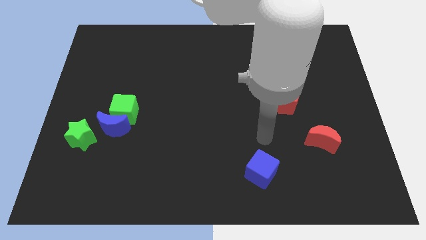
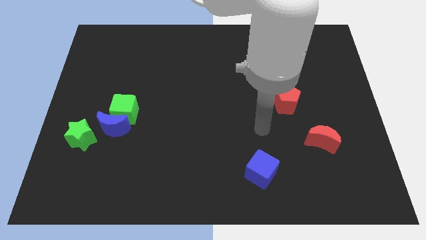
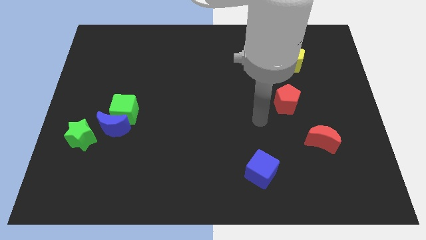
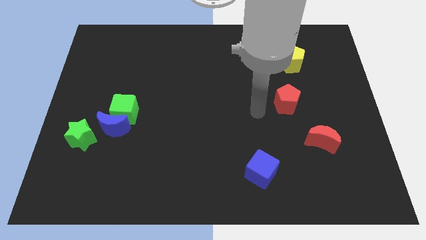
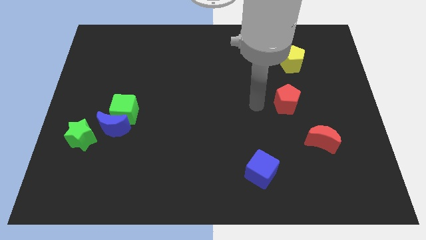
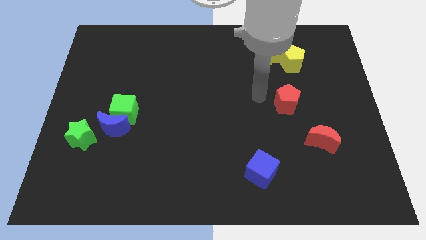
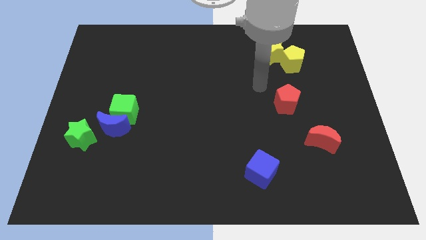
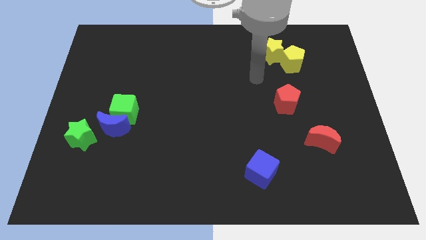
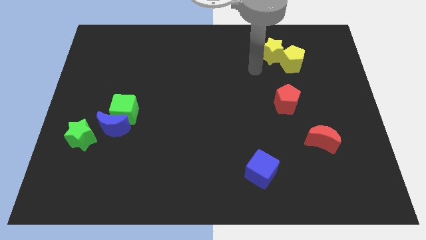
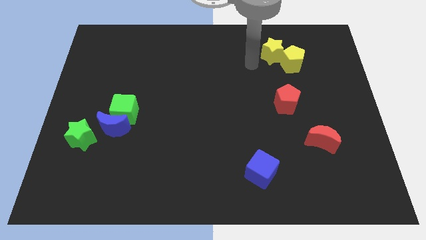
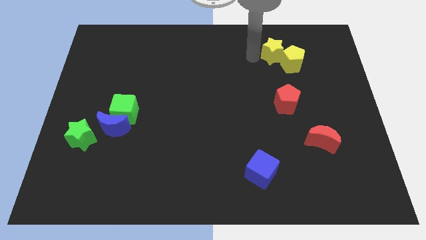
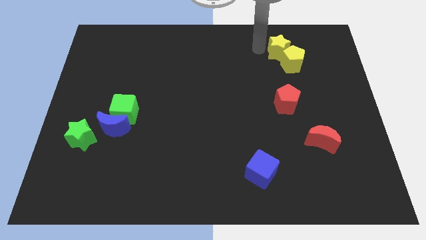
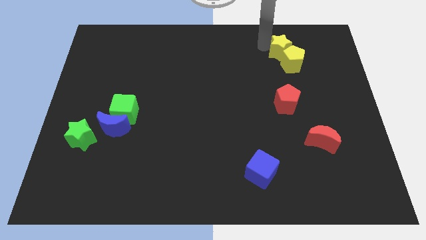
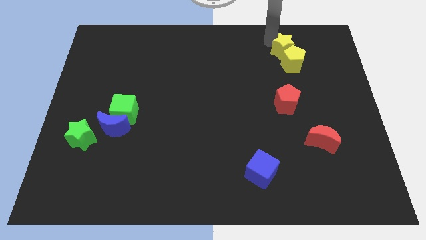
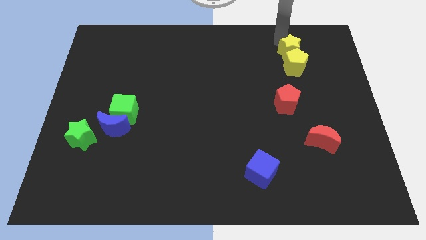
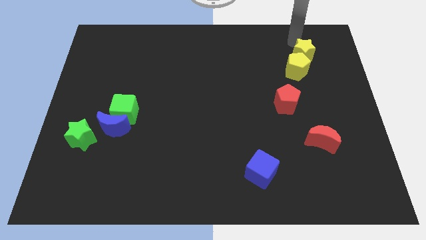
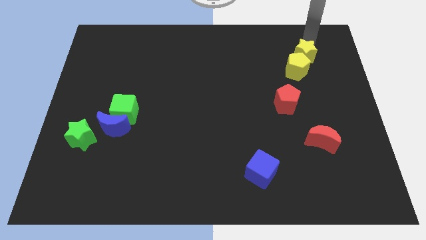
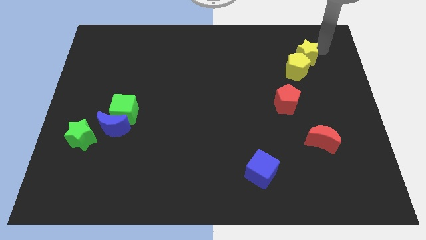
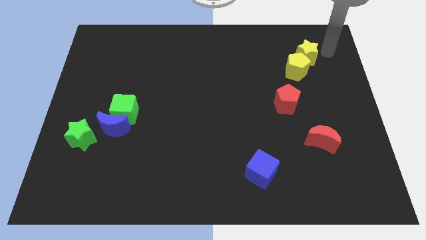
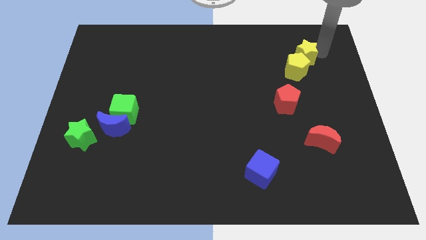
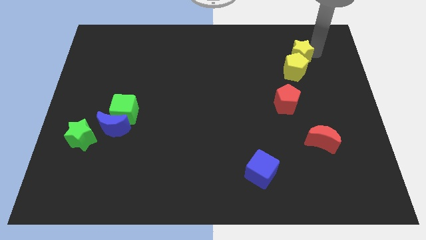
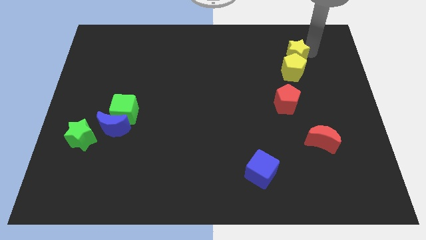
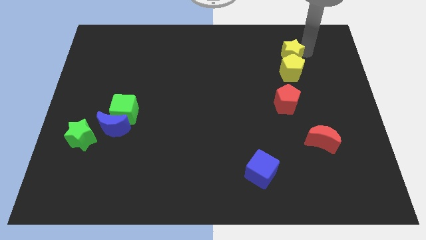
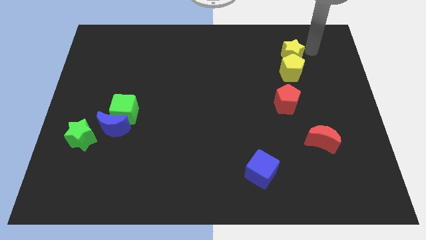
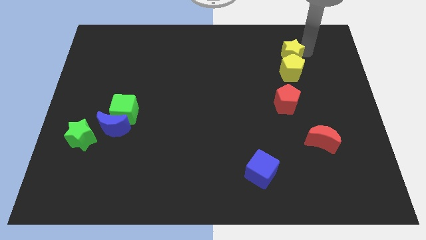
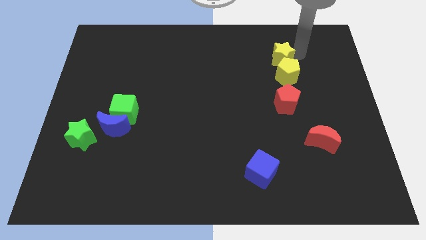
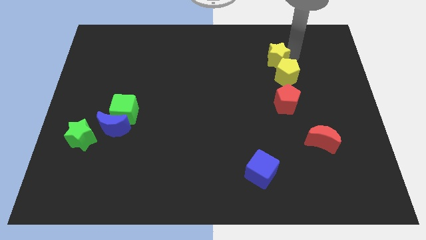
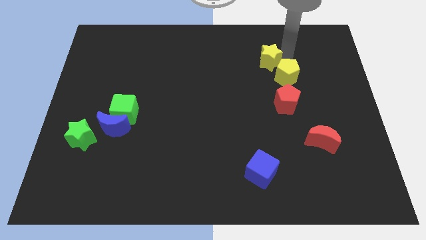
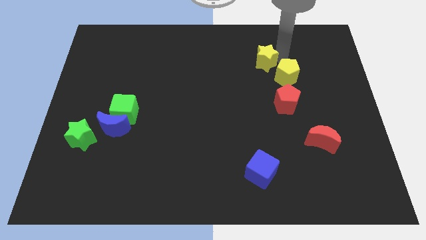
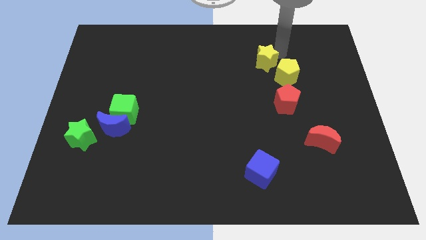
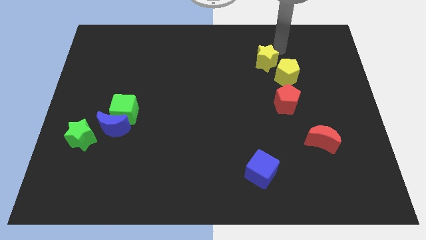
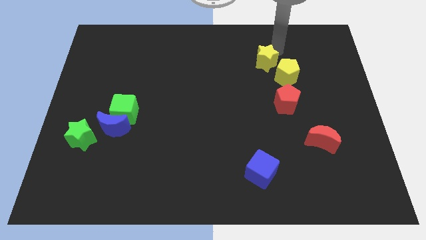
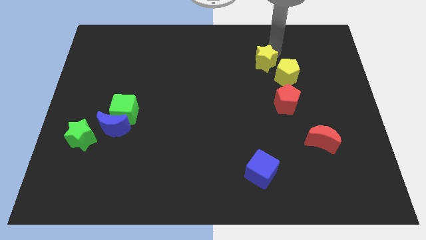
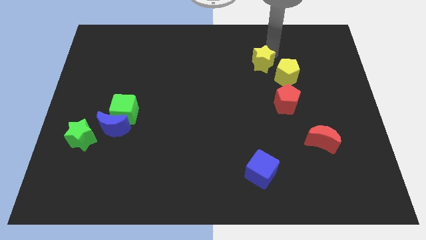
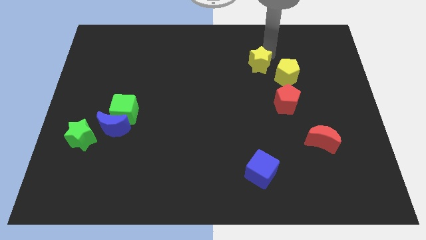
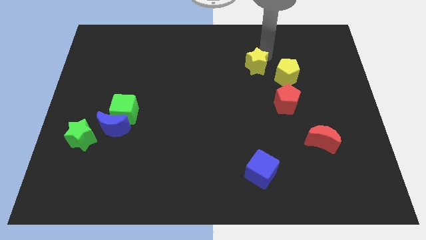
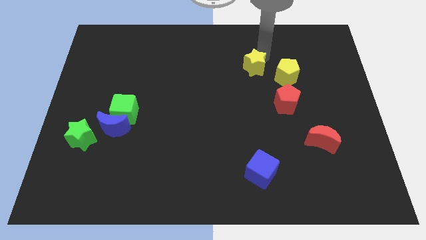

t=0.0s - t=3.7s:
slide the yellow star down and to the left a little

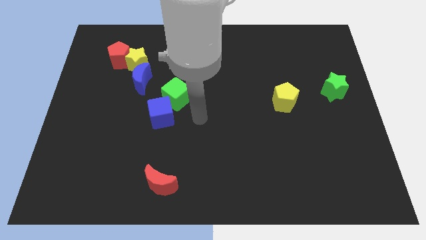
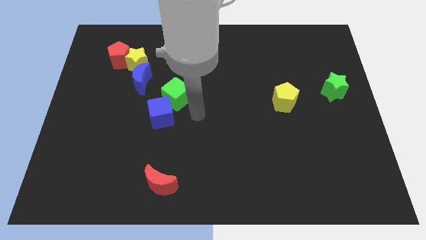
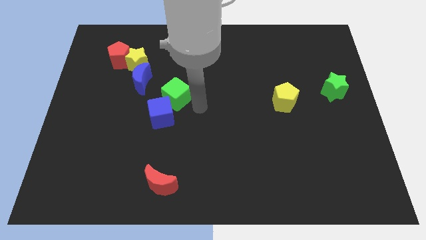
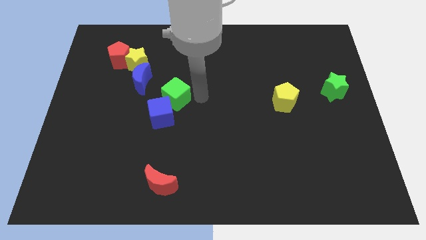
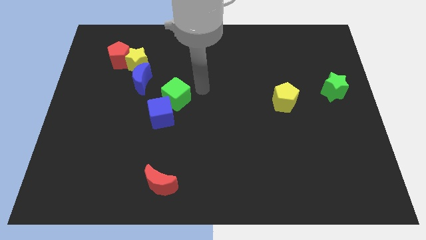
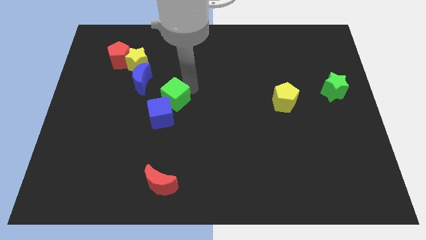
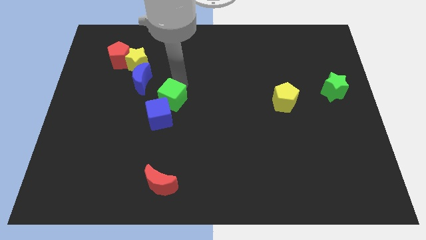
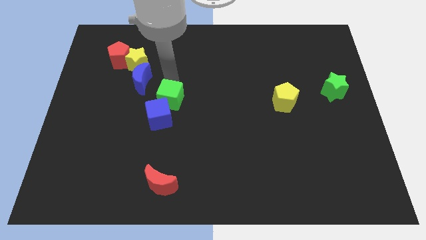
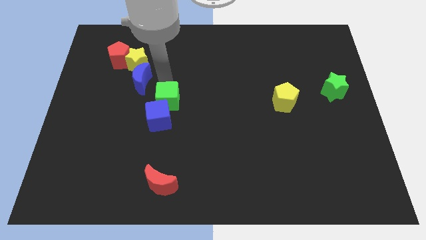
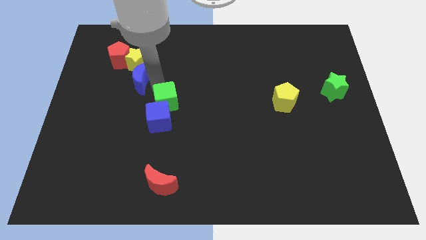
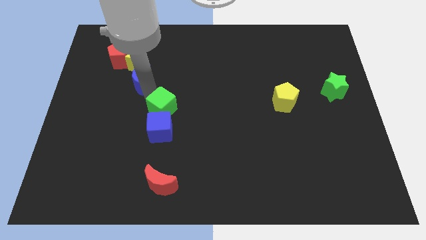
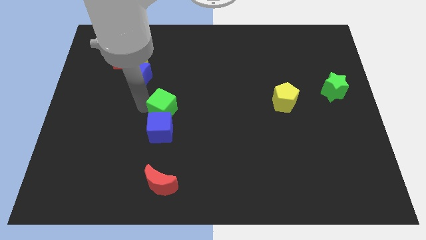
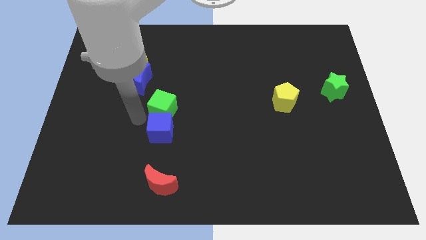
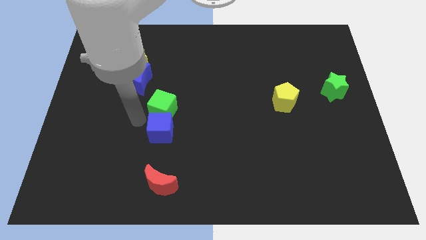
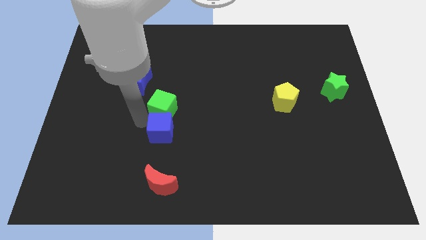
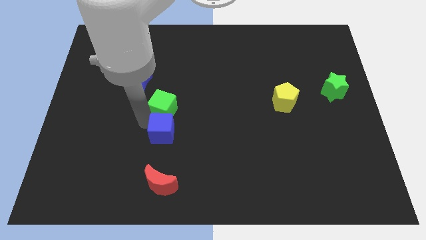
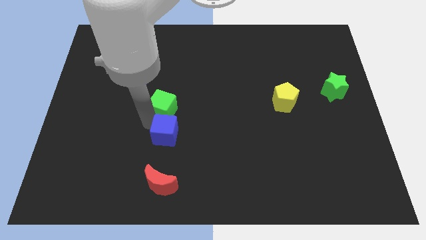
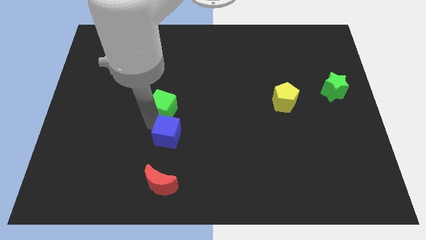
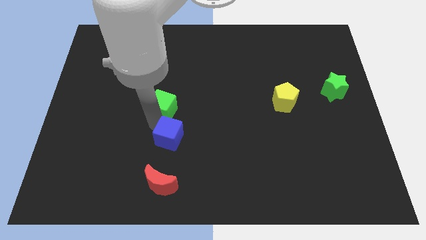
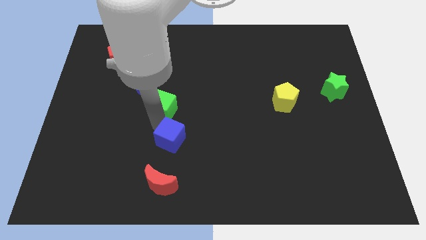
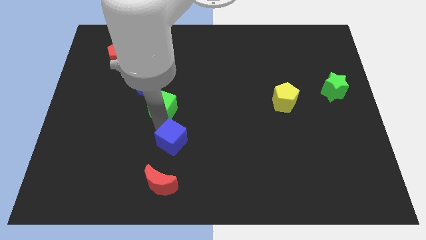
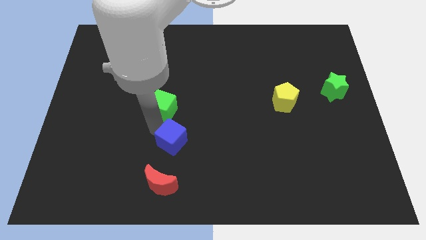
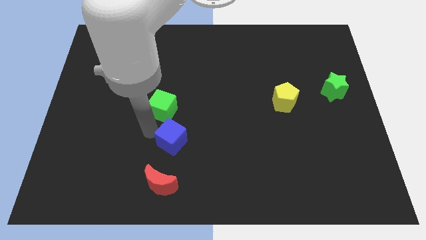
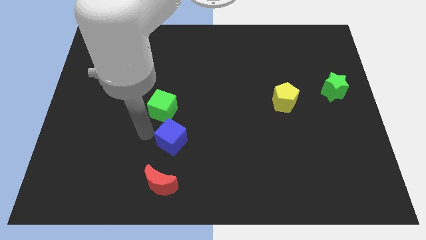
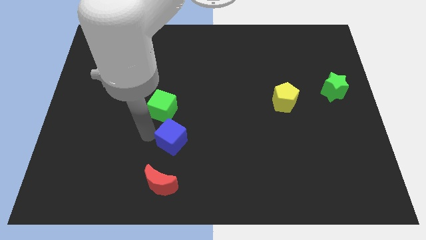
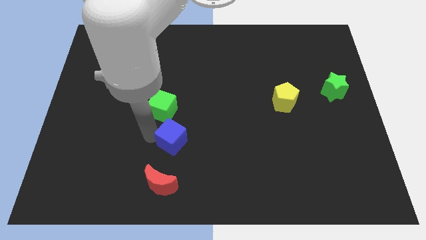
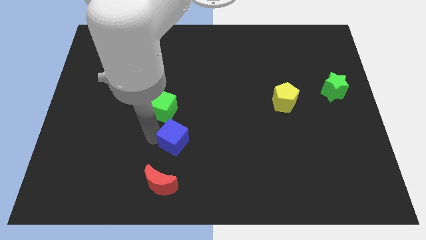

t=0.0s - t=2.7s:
slightly slide the blue cube diagonally down and to the right

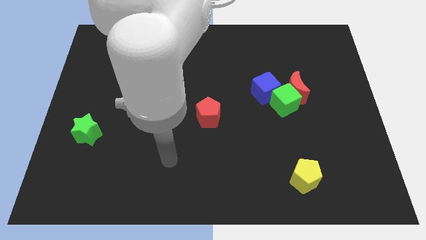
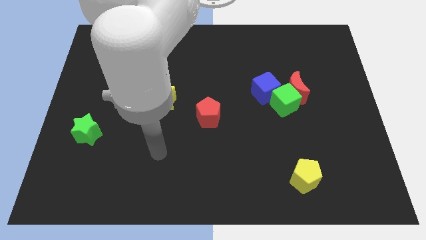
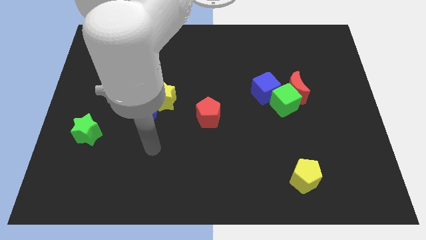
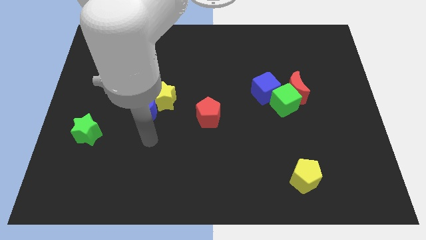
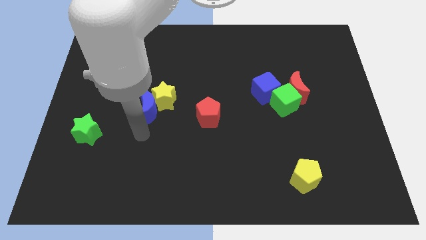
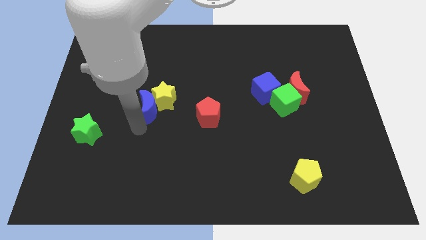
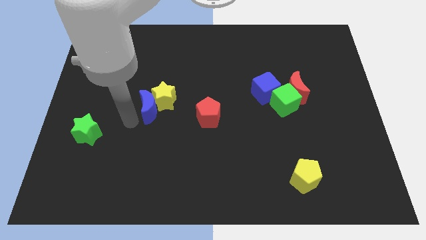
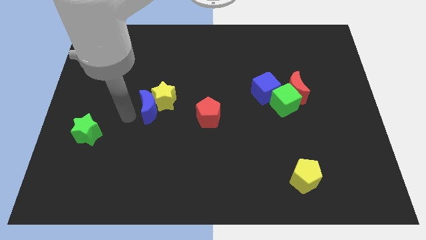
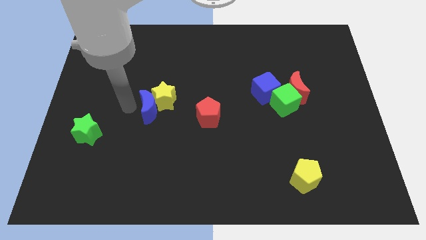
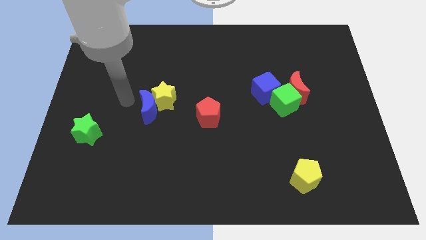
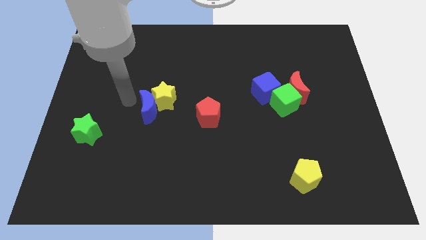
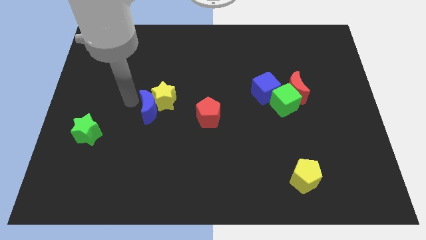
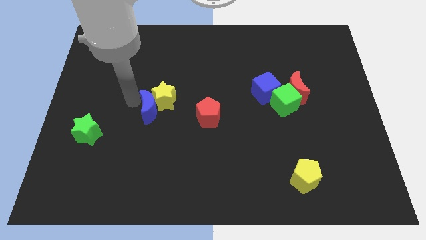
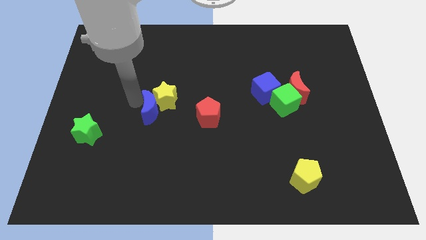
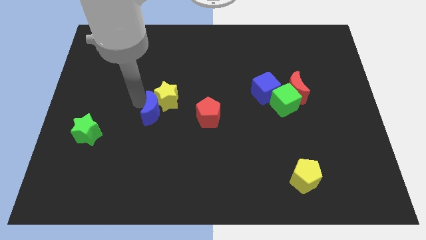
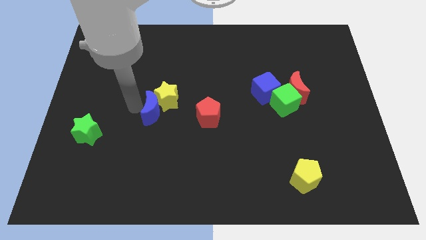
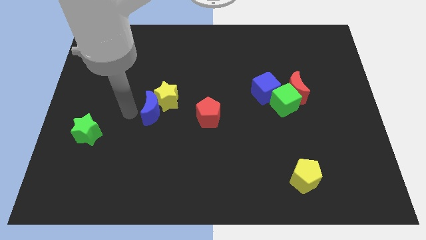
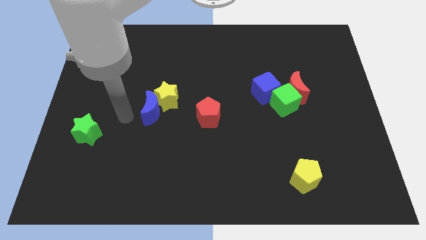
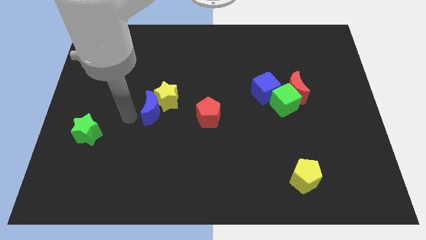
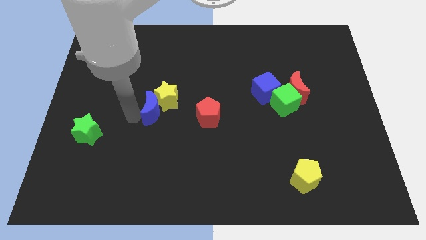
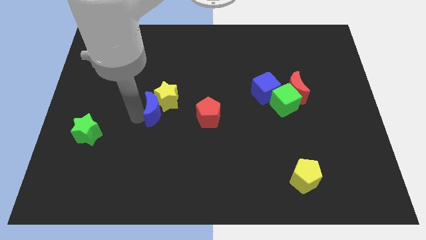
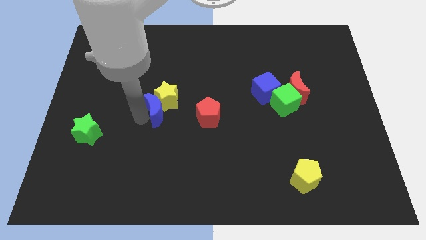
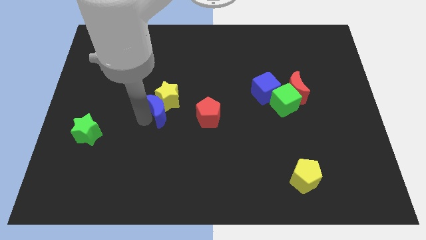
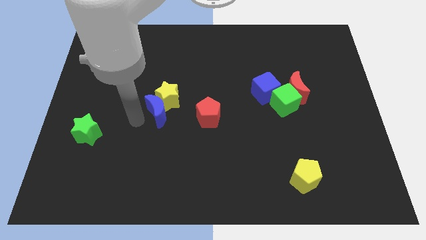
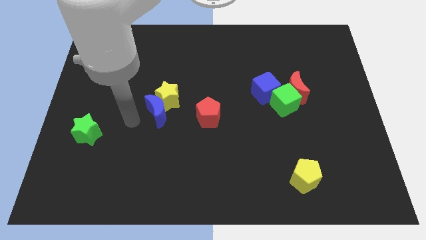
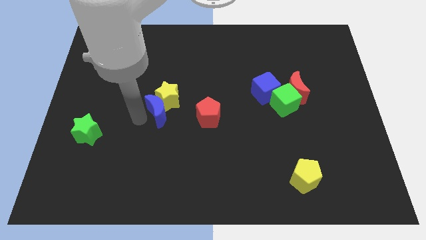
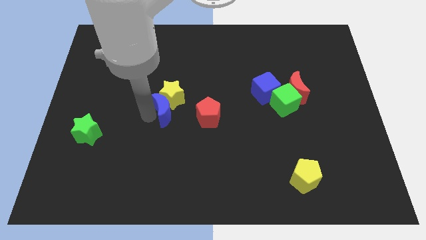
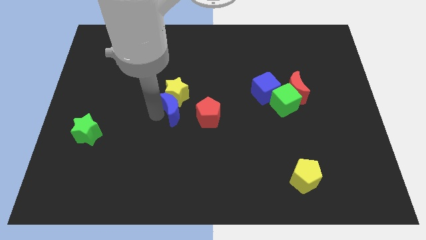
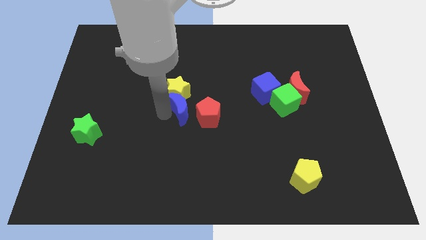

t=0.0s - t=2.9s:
slide the blue moon a little right
